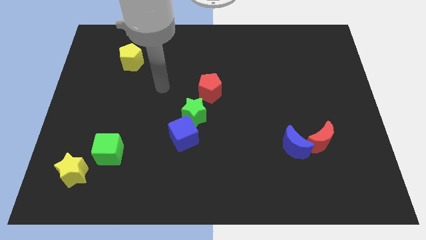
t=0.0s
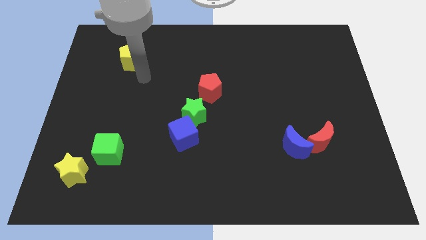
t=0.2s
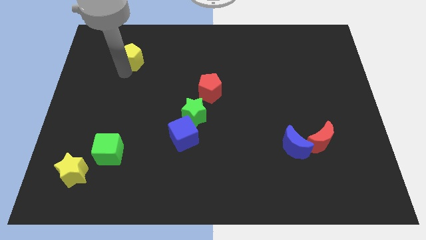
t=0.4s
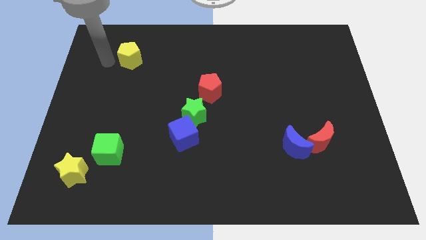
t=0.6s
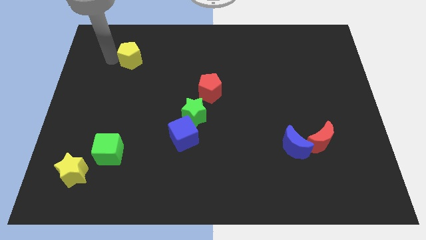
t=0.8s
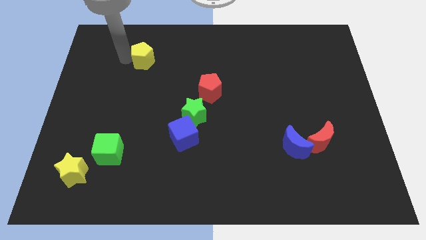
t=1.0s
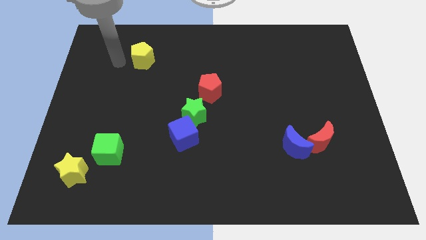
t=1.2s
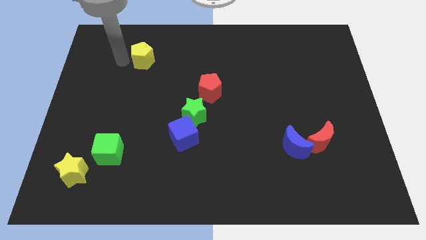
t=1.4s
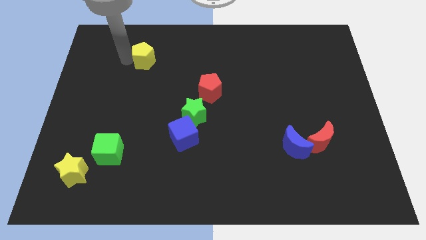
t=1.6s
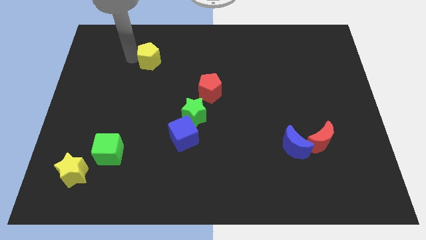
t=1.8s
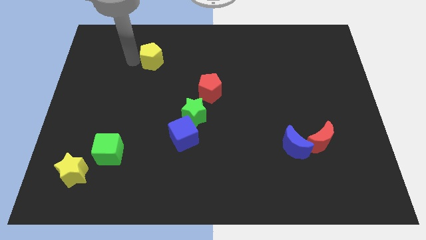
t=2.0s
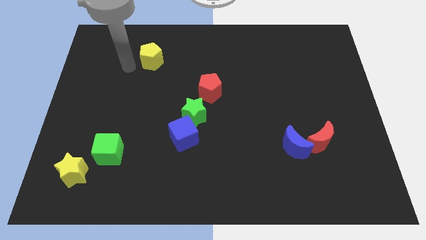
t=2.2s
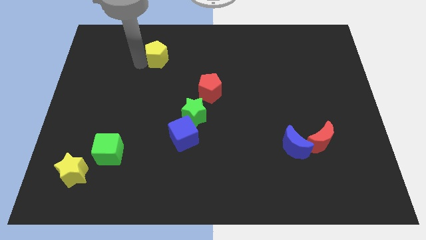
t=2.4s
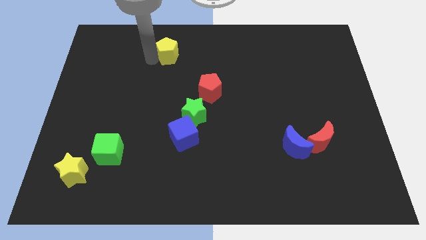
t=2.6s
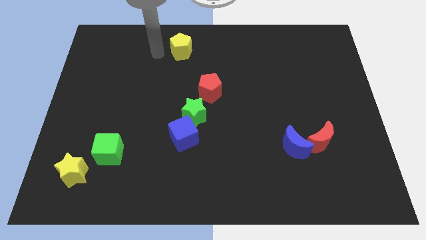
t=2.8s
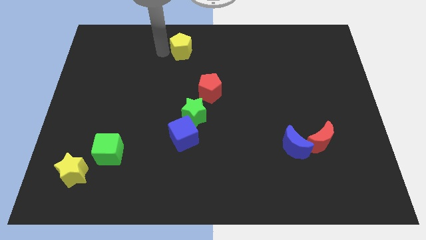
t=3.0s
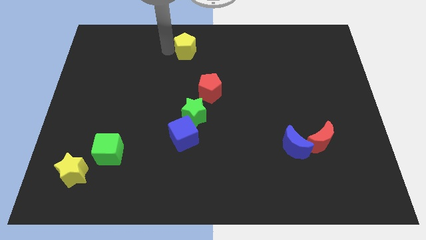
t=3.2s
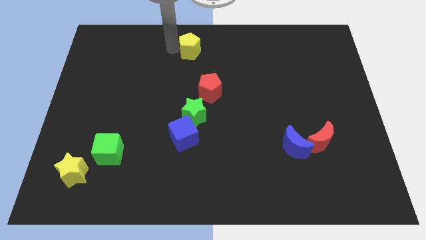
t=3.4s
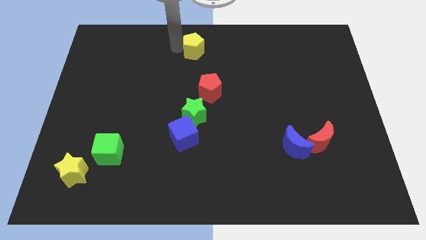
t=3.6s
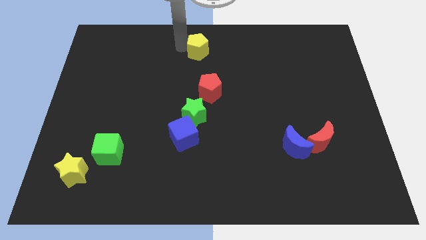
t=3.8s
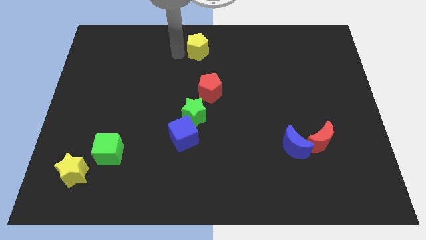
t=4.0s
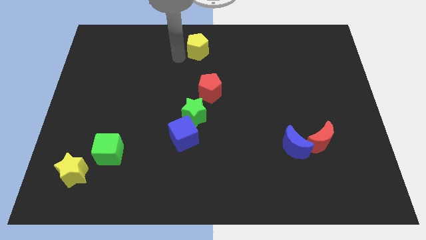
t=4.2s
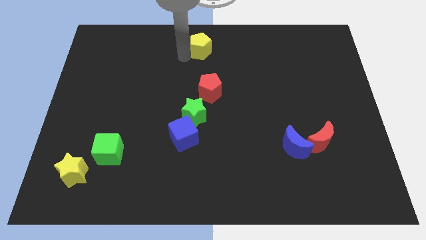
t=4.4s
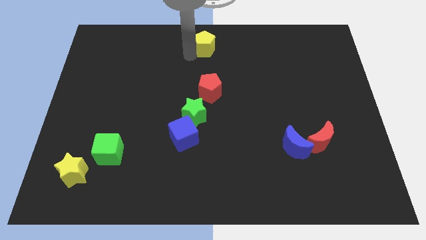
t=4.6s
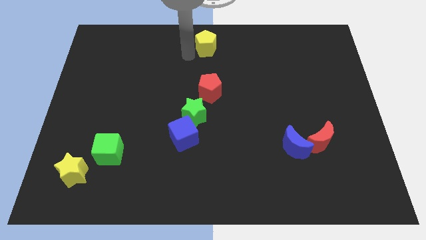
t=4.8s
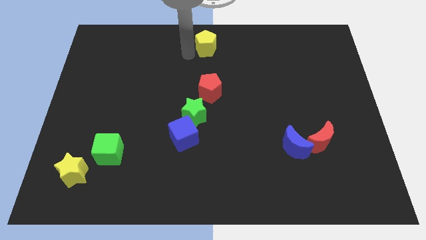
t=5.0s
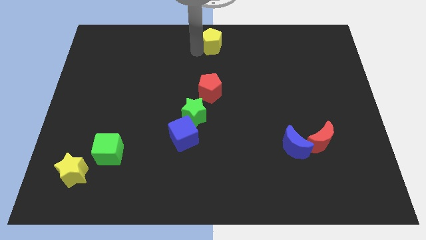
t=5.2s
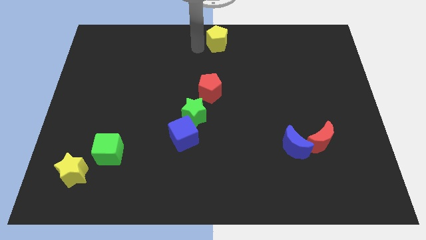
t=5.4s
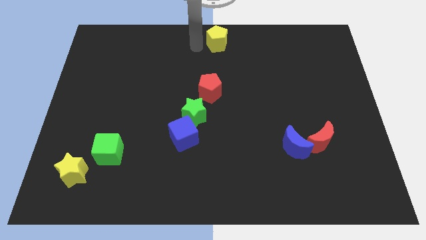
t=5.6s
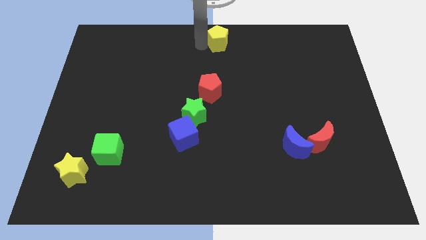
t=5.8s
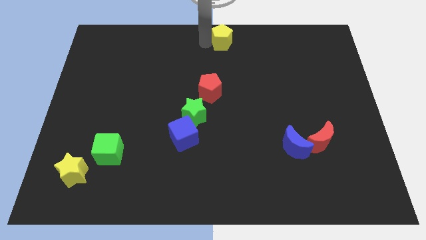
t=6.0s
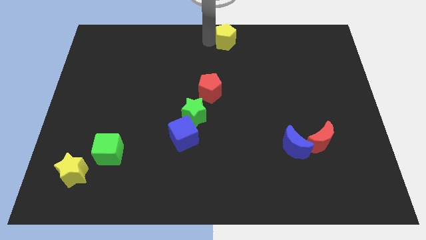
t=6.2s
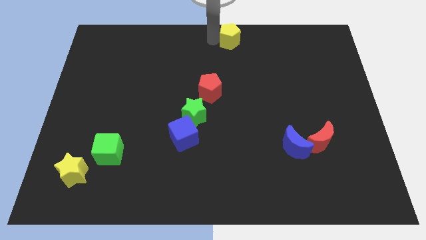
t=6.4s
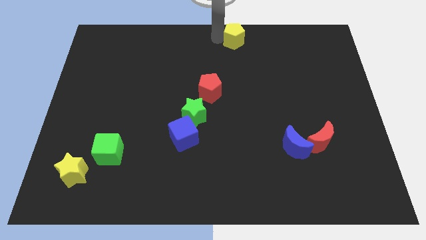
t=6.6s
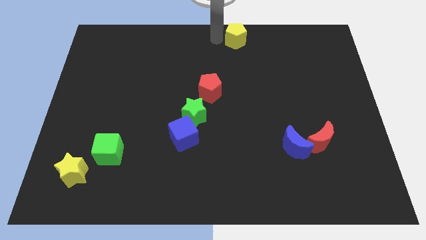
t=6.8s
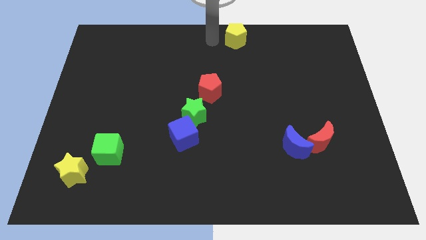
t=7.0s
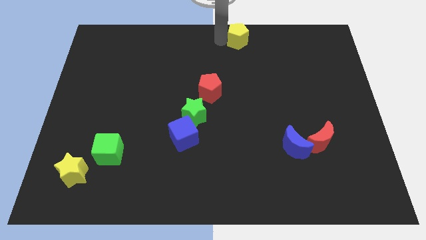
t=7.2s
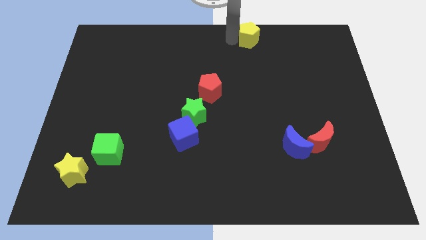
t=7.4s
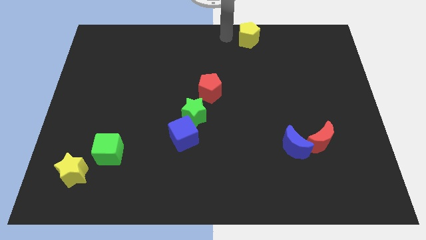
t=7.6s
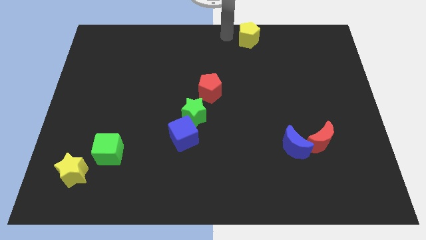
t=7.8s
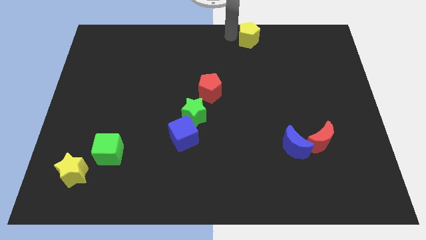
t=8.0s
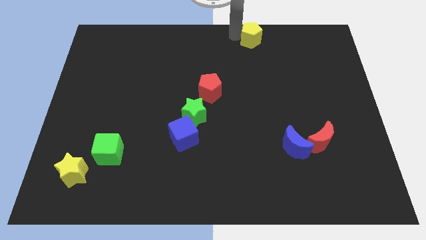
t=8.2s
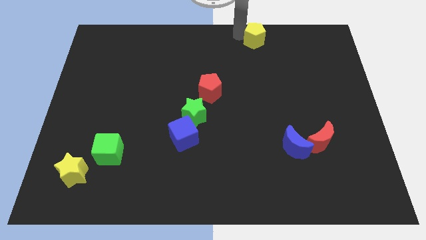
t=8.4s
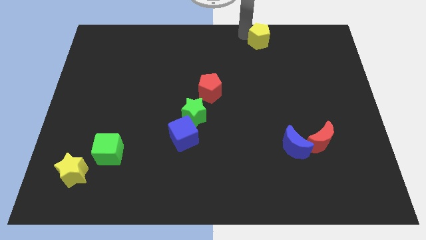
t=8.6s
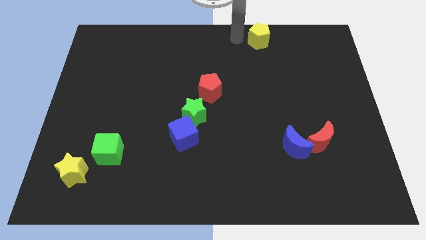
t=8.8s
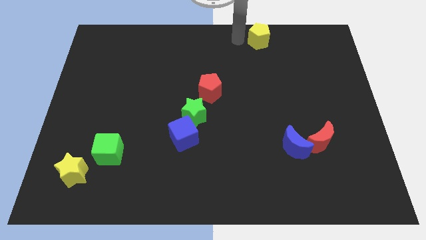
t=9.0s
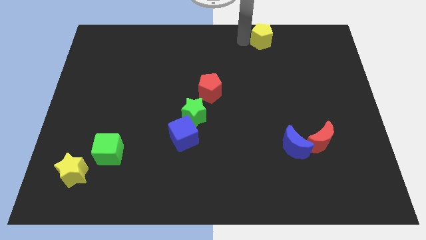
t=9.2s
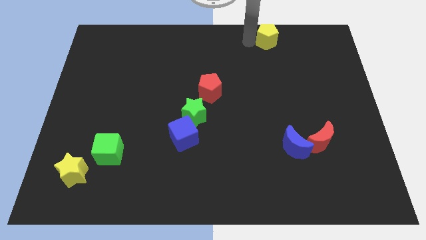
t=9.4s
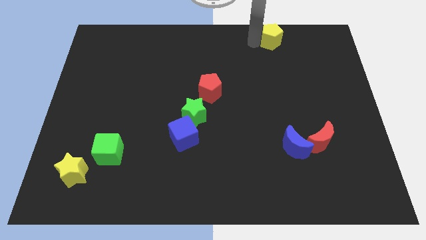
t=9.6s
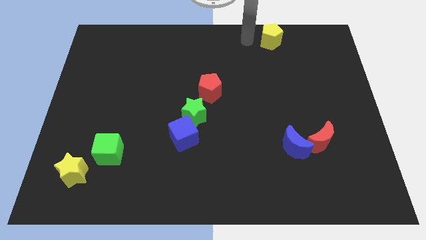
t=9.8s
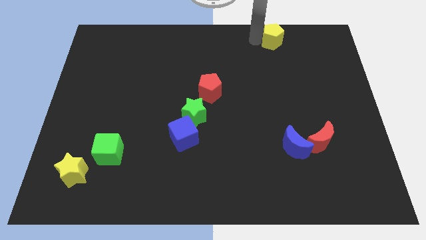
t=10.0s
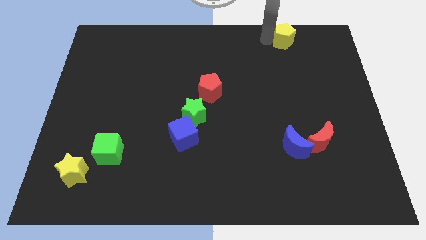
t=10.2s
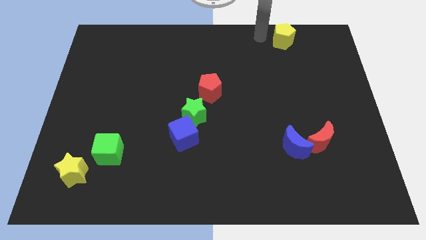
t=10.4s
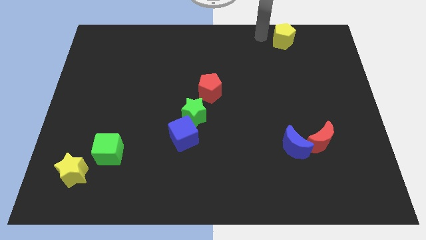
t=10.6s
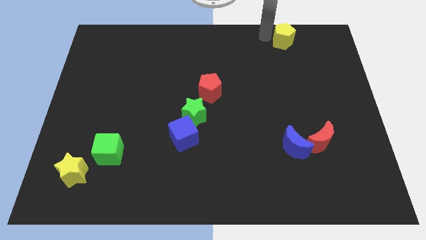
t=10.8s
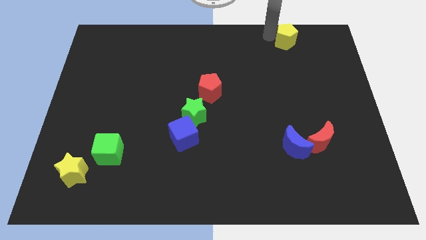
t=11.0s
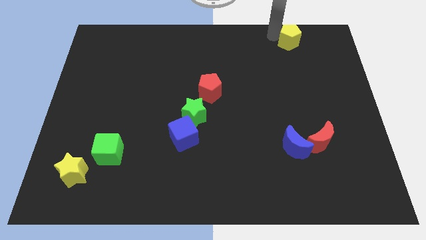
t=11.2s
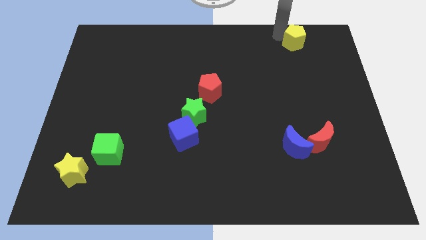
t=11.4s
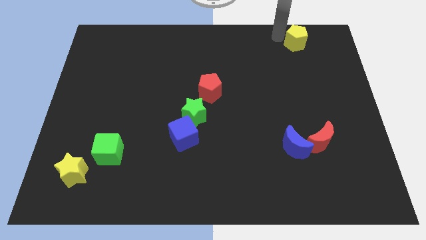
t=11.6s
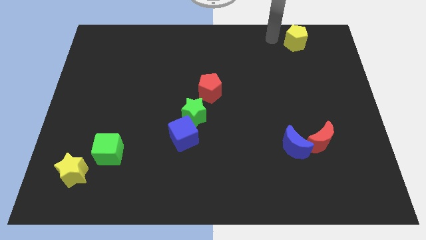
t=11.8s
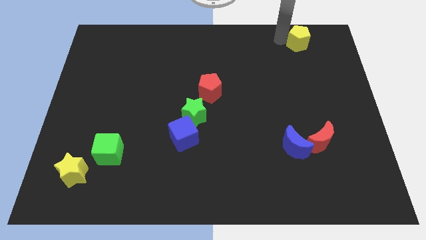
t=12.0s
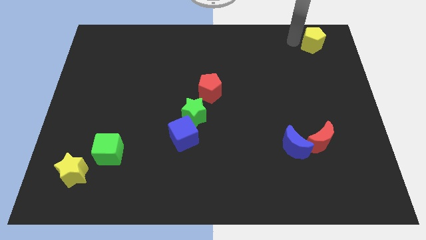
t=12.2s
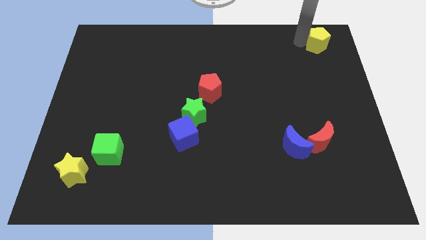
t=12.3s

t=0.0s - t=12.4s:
put the yellow pentagon to the top right of the board
